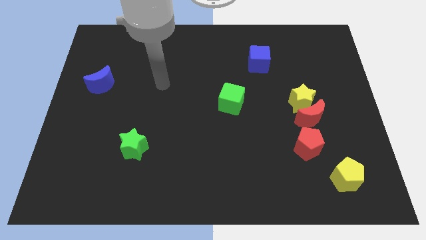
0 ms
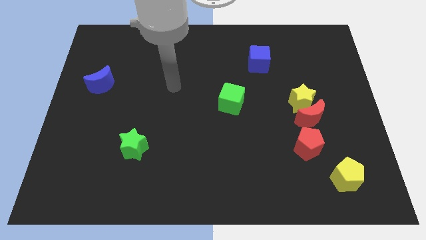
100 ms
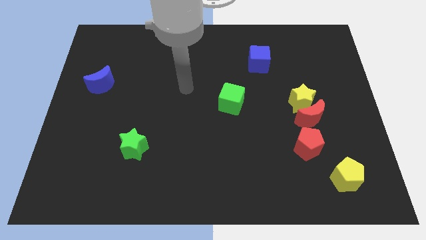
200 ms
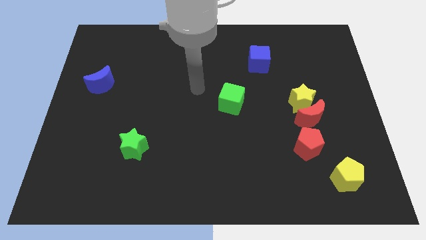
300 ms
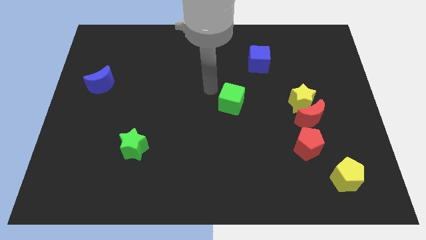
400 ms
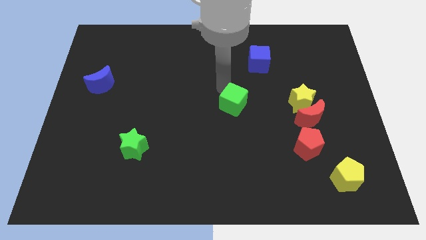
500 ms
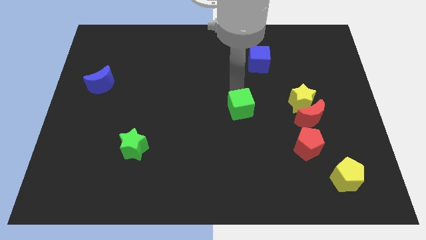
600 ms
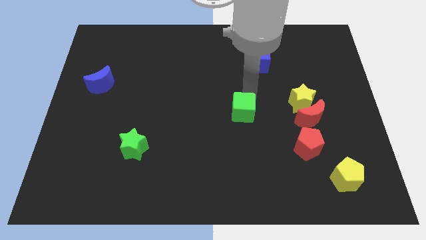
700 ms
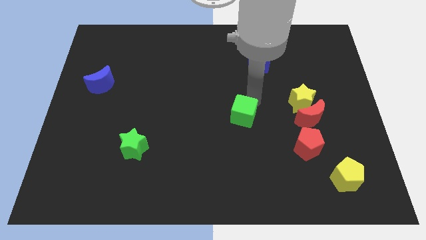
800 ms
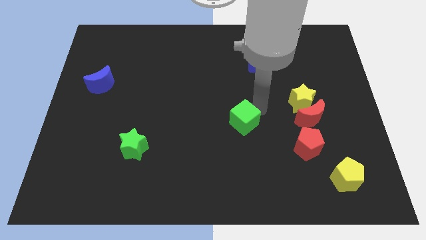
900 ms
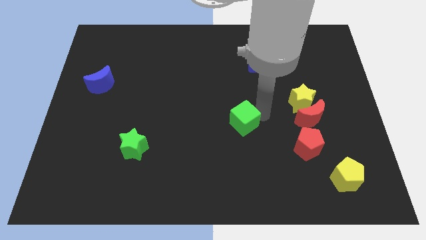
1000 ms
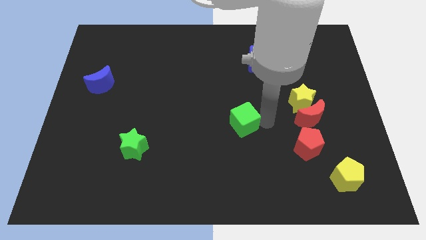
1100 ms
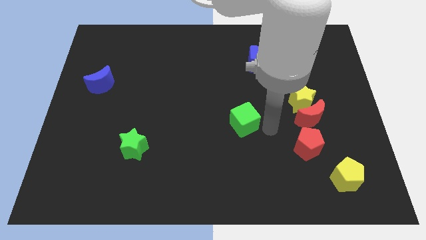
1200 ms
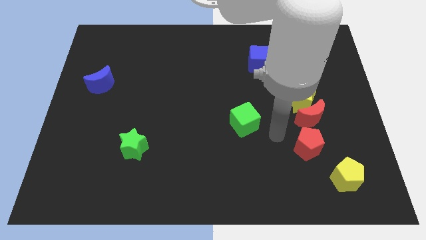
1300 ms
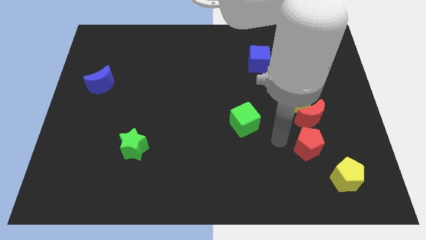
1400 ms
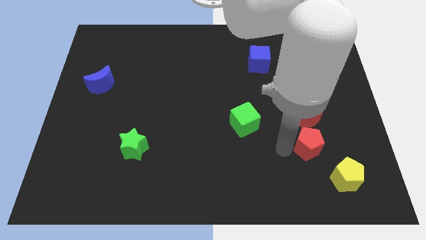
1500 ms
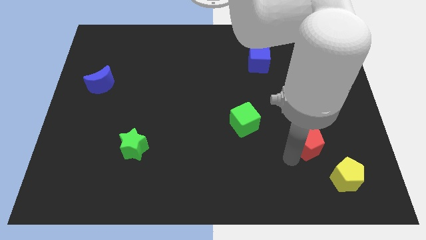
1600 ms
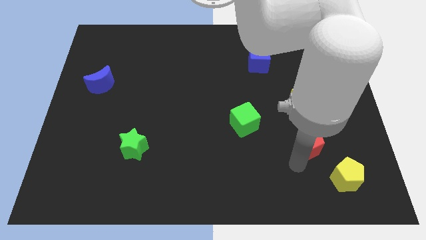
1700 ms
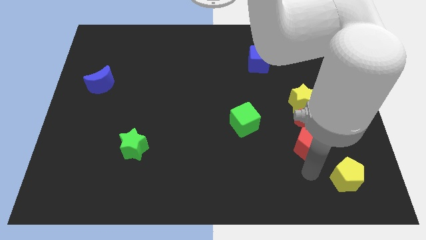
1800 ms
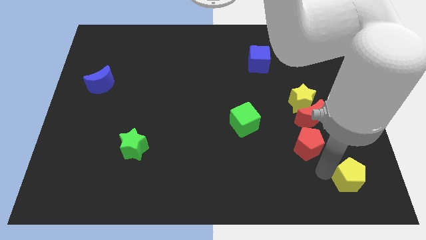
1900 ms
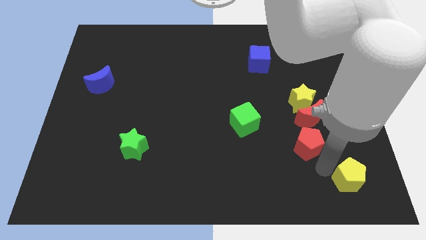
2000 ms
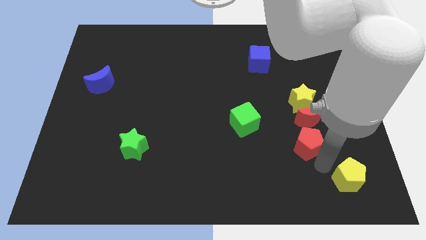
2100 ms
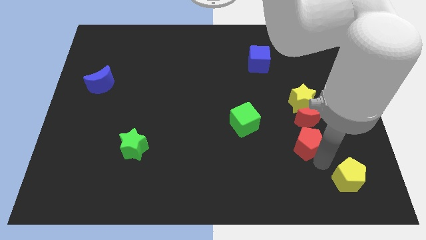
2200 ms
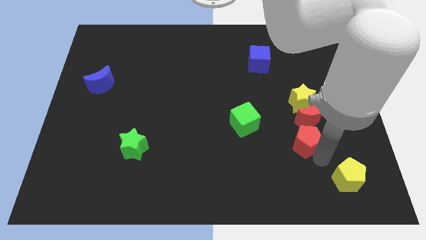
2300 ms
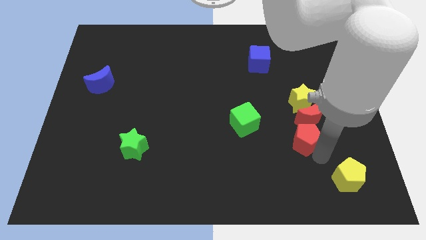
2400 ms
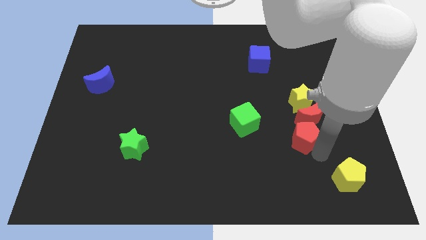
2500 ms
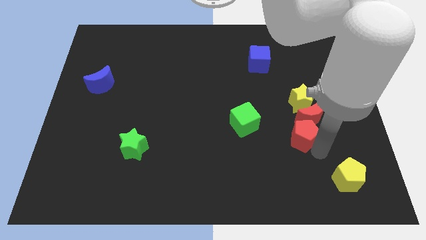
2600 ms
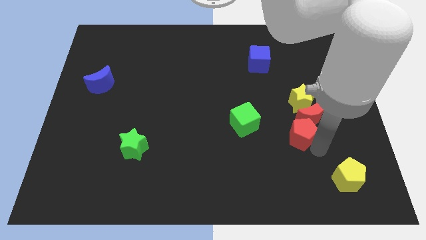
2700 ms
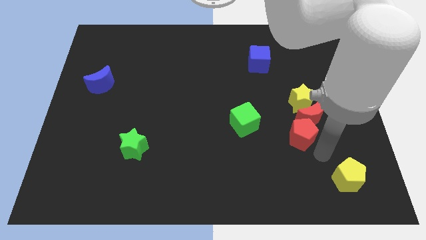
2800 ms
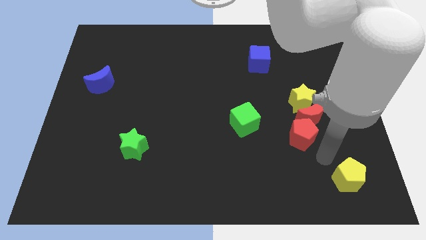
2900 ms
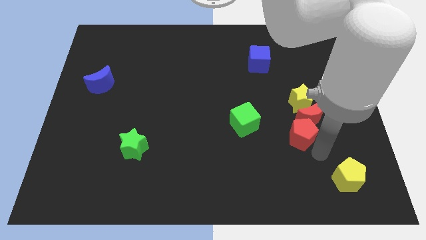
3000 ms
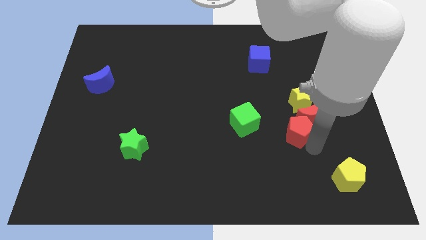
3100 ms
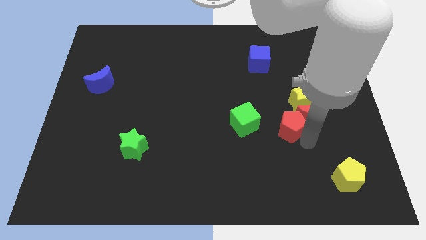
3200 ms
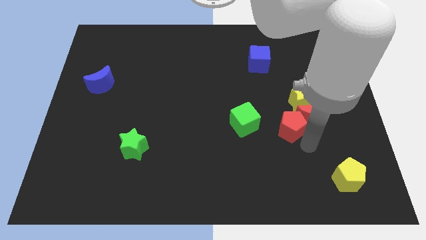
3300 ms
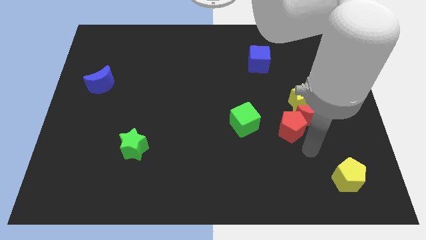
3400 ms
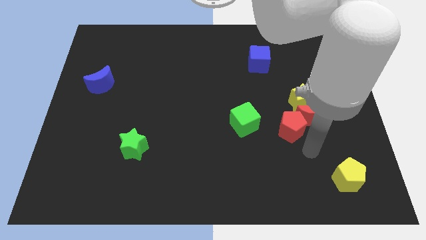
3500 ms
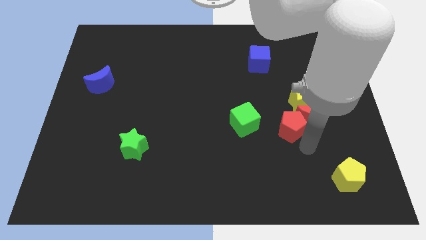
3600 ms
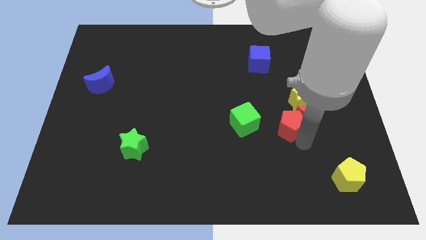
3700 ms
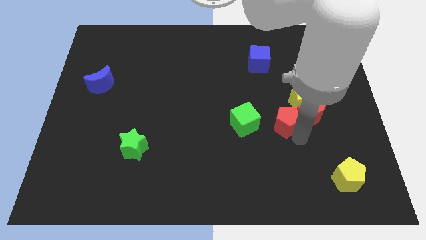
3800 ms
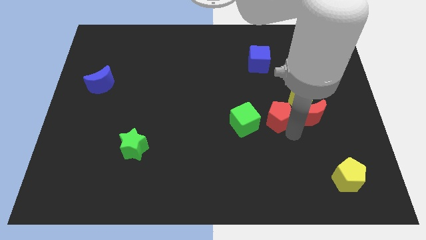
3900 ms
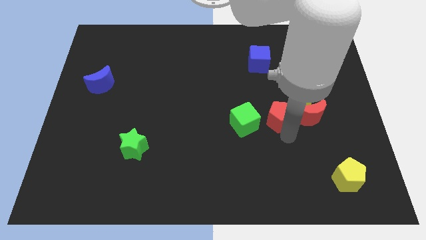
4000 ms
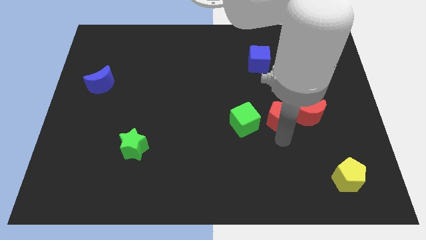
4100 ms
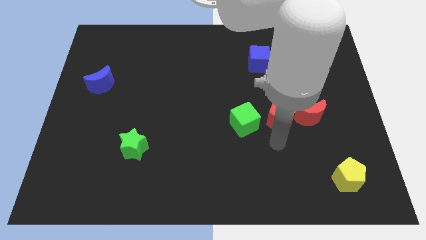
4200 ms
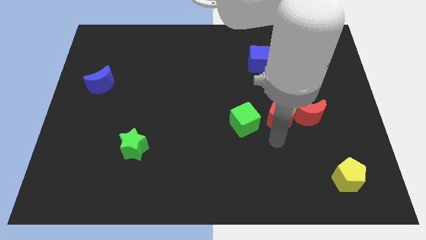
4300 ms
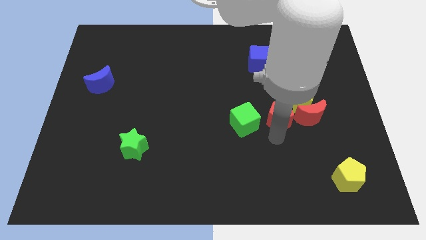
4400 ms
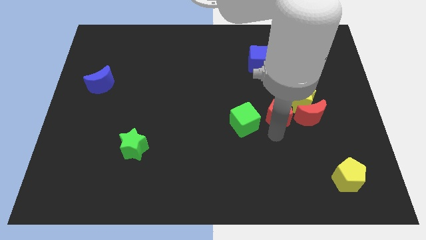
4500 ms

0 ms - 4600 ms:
slightly slide the red pentagon up

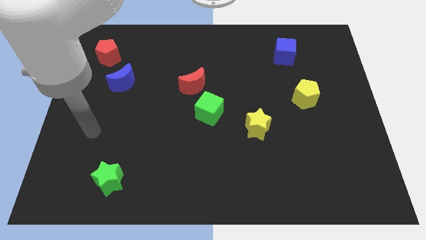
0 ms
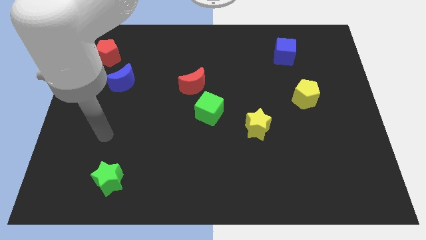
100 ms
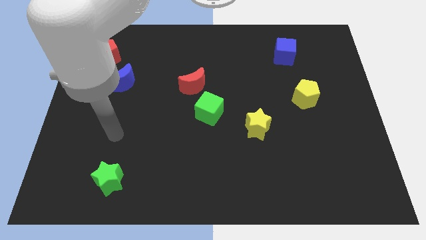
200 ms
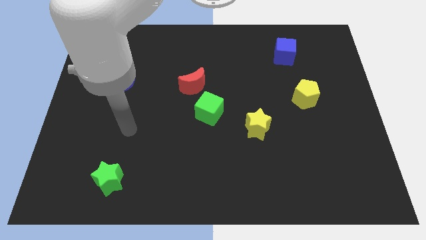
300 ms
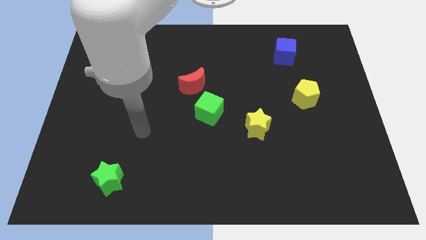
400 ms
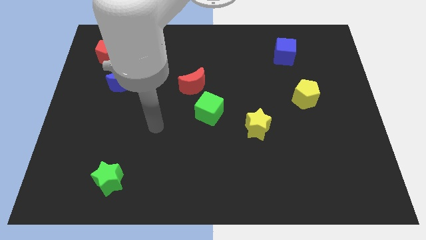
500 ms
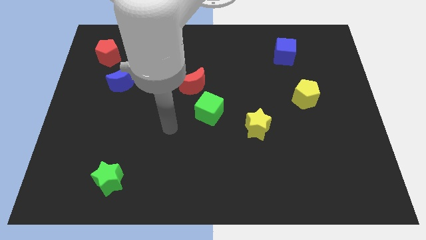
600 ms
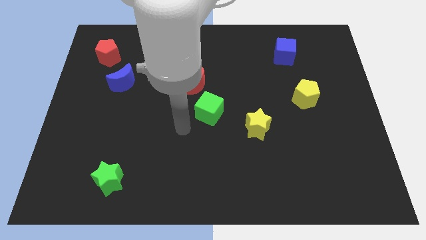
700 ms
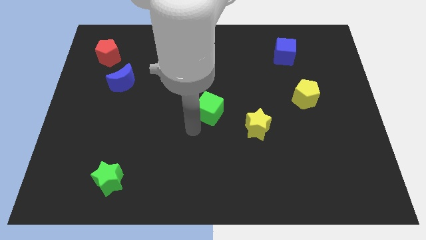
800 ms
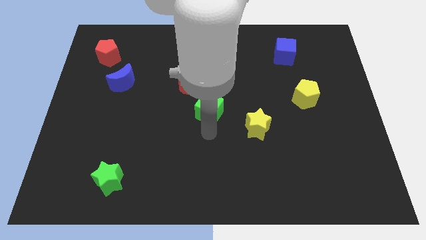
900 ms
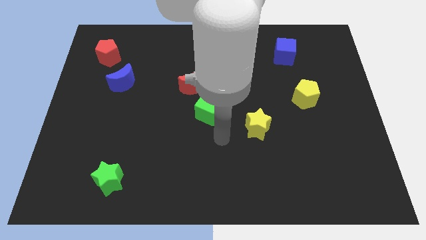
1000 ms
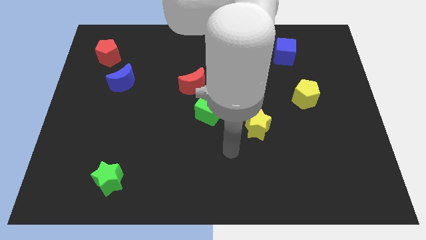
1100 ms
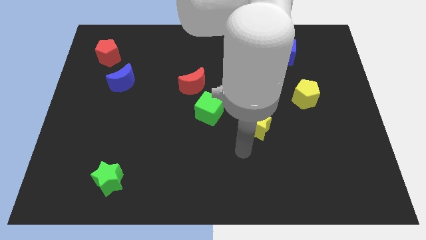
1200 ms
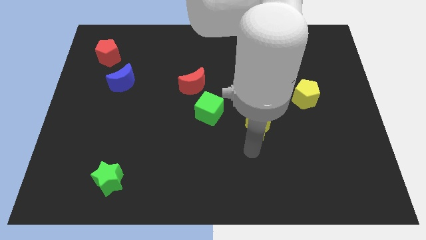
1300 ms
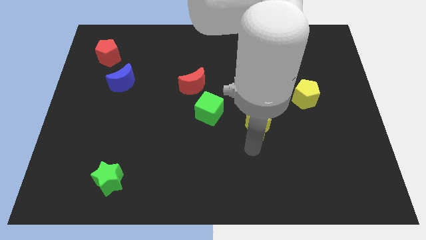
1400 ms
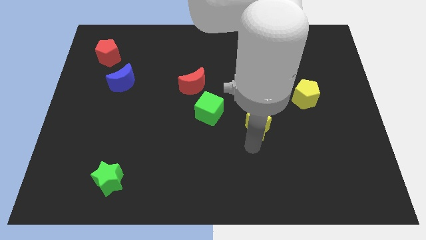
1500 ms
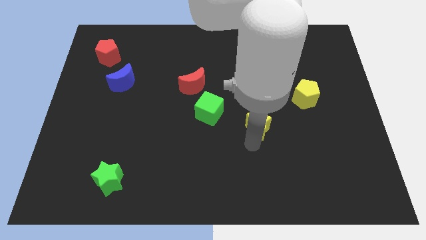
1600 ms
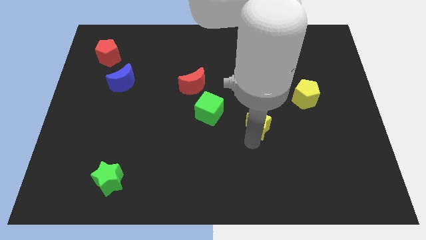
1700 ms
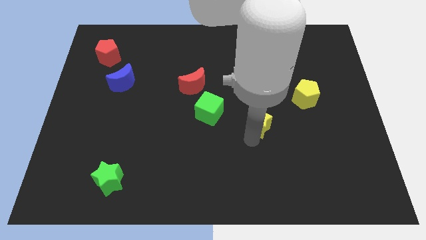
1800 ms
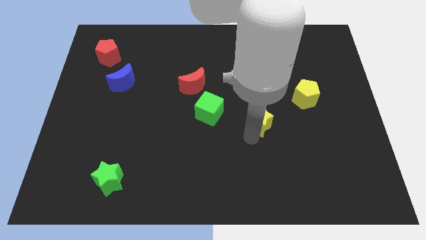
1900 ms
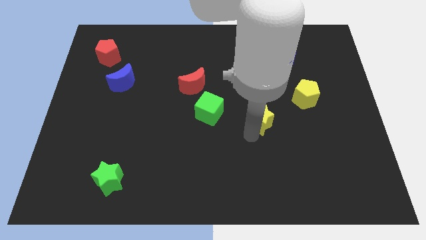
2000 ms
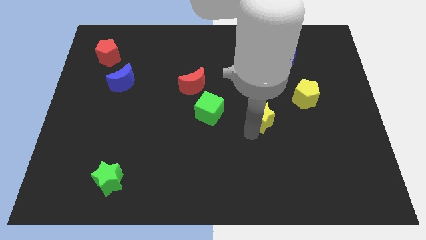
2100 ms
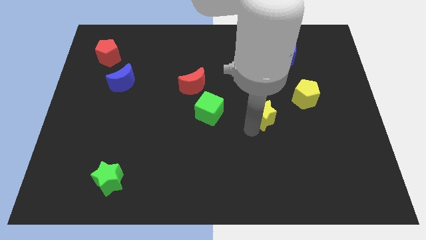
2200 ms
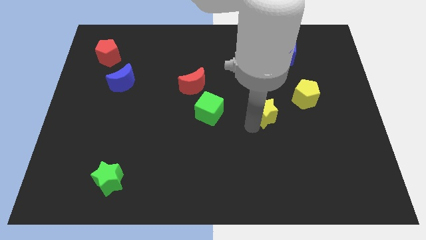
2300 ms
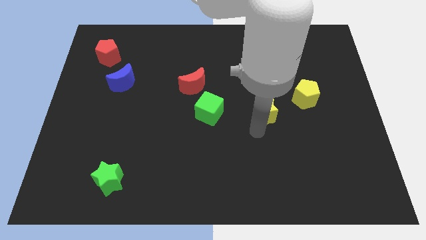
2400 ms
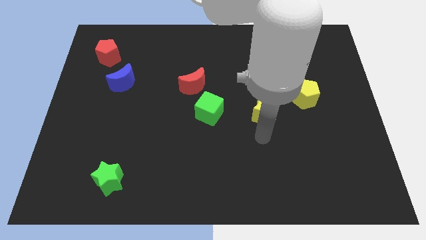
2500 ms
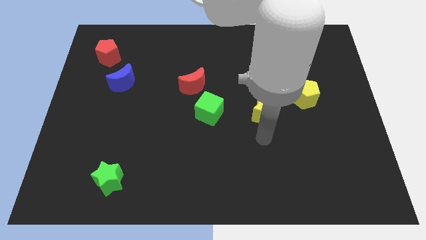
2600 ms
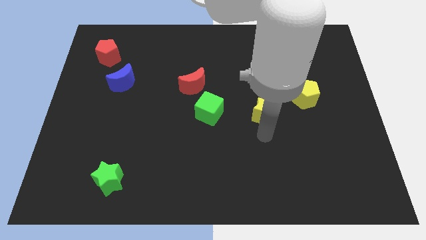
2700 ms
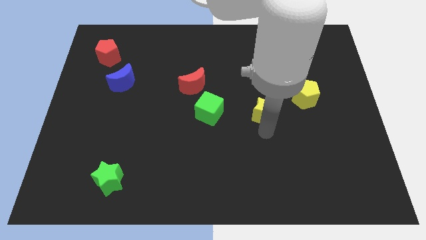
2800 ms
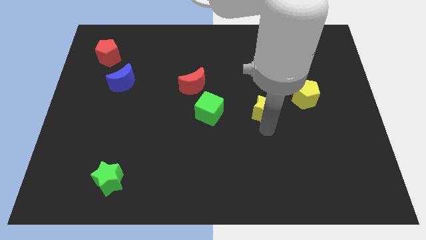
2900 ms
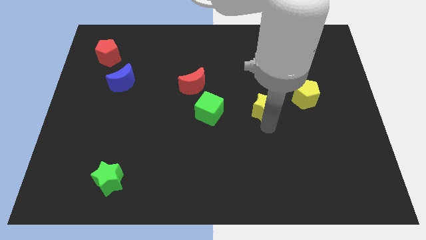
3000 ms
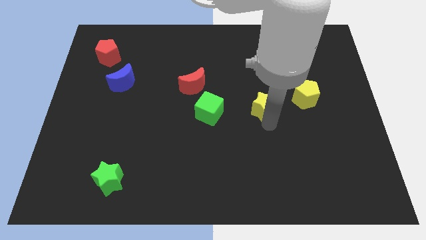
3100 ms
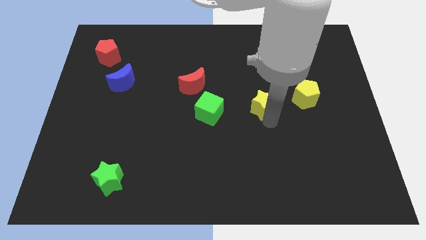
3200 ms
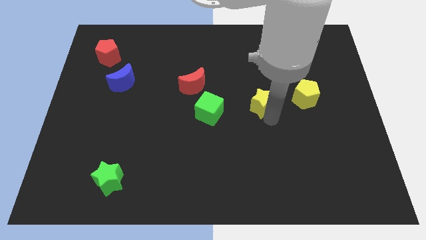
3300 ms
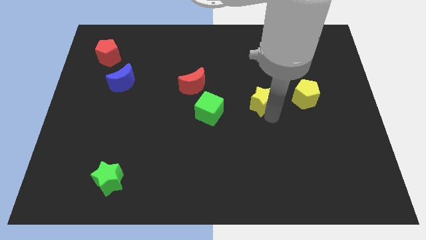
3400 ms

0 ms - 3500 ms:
push the yellow star a little bit up

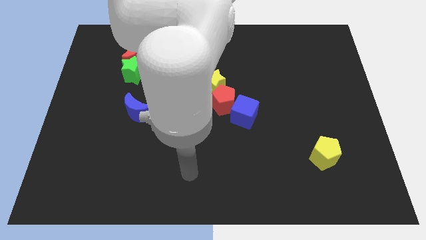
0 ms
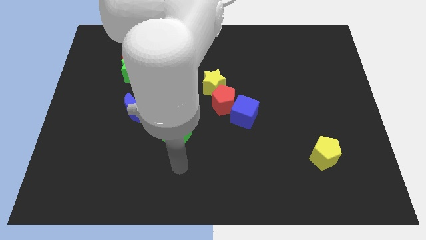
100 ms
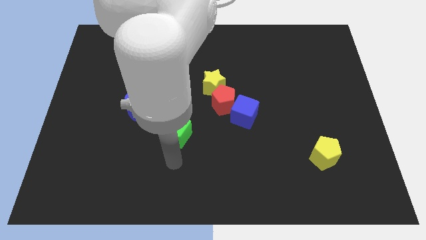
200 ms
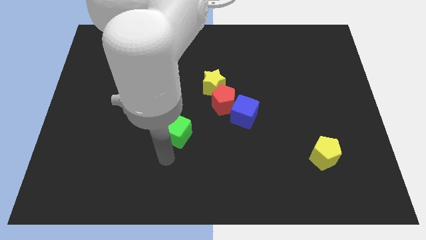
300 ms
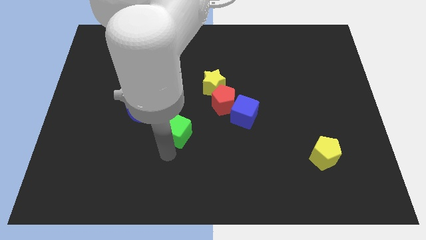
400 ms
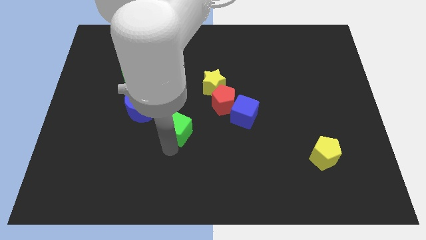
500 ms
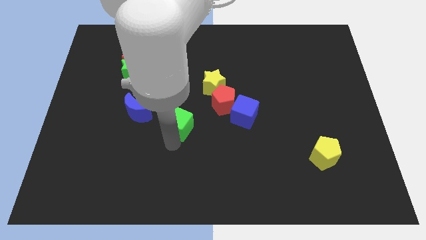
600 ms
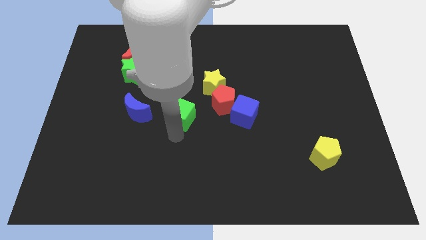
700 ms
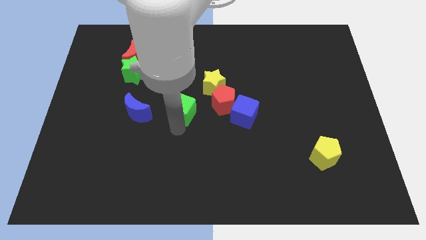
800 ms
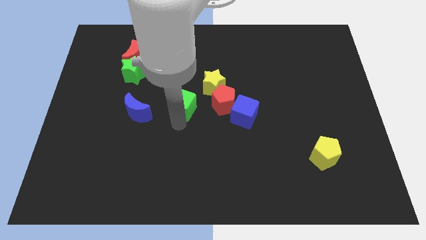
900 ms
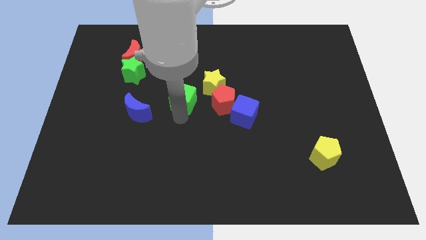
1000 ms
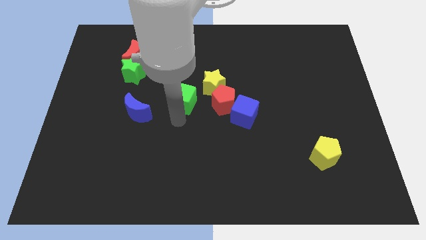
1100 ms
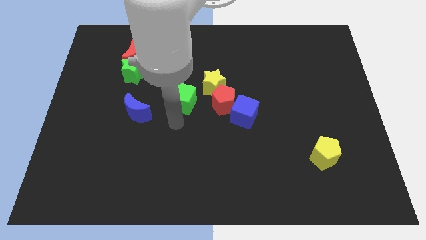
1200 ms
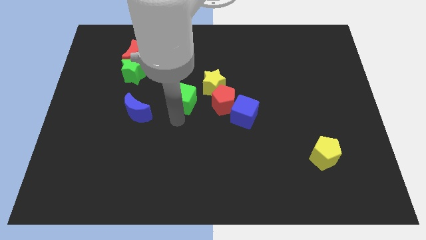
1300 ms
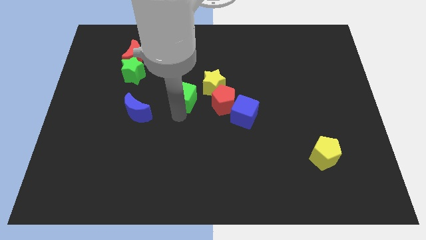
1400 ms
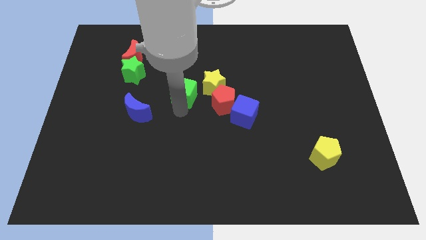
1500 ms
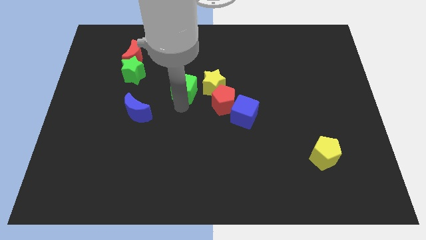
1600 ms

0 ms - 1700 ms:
move the green cube a little diagonally up and right
